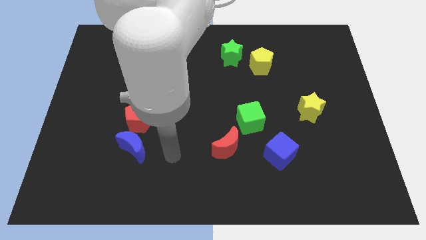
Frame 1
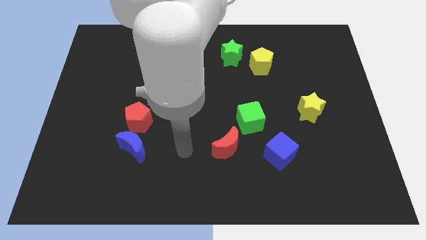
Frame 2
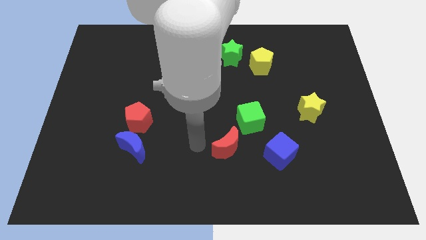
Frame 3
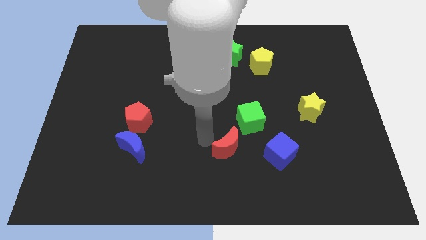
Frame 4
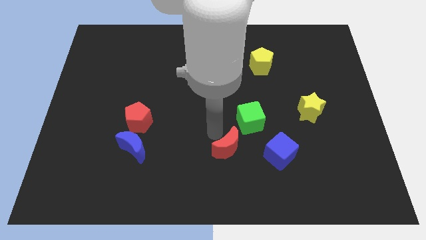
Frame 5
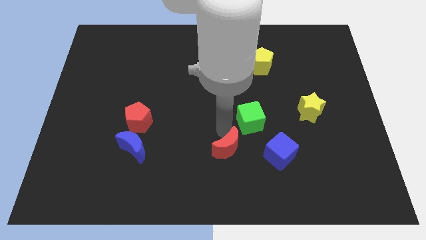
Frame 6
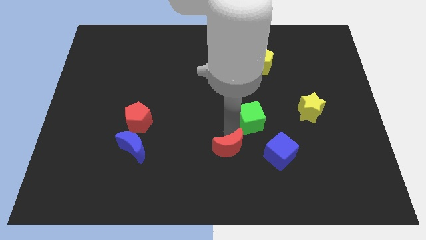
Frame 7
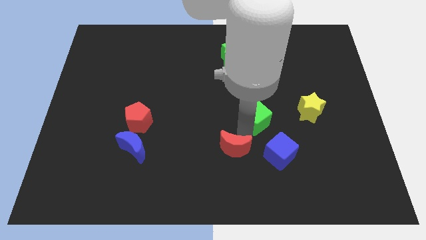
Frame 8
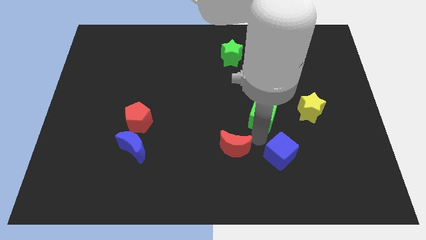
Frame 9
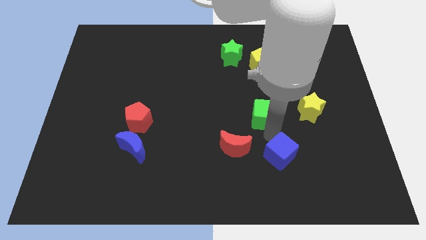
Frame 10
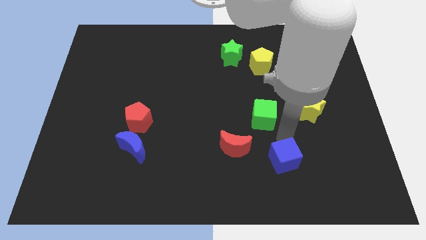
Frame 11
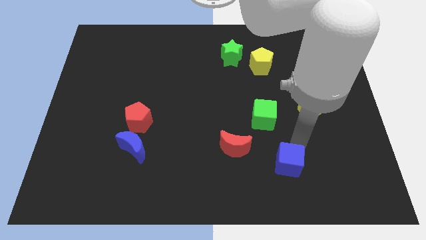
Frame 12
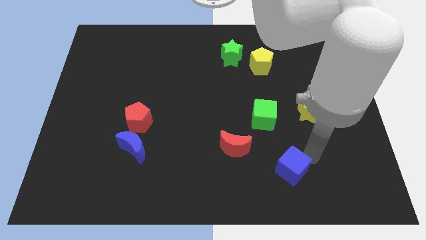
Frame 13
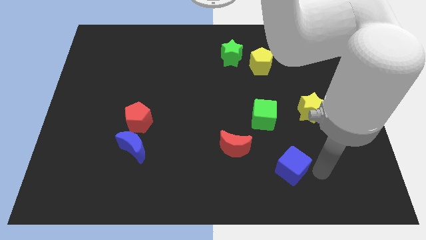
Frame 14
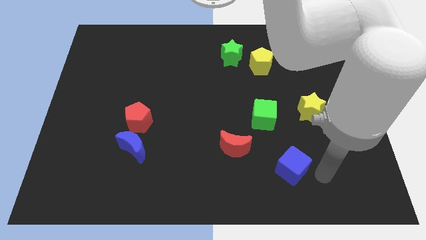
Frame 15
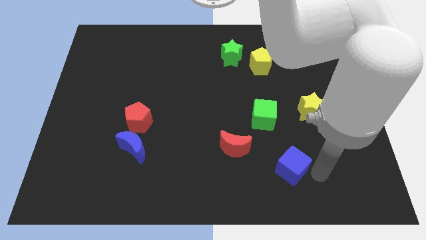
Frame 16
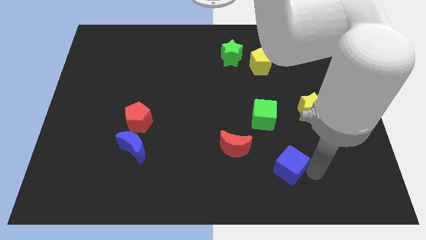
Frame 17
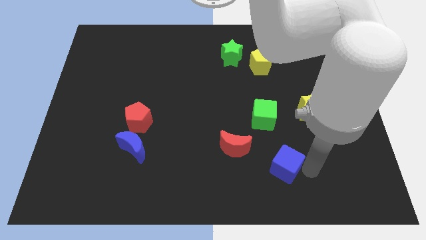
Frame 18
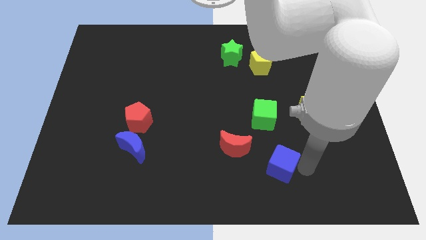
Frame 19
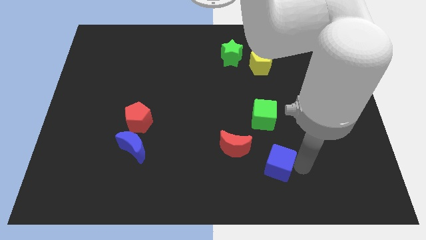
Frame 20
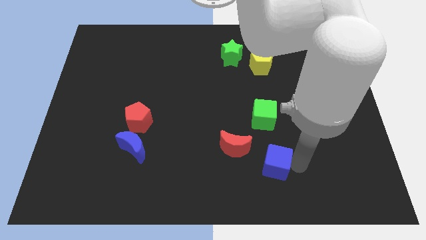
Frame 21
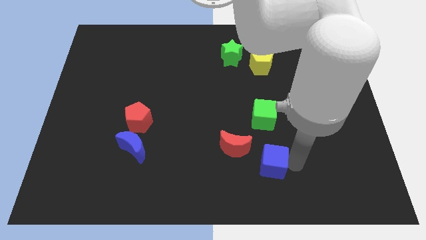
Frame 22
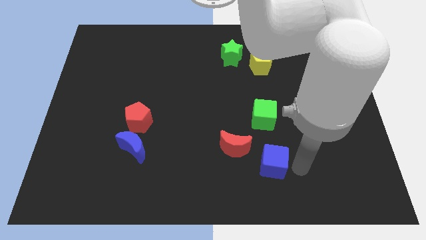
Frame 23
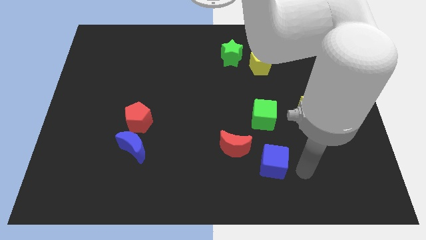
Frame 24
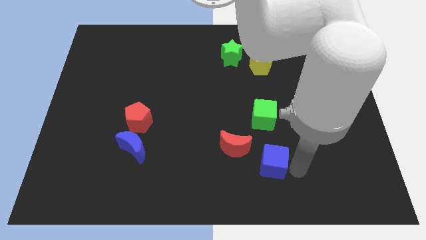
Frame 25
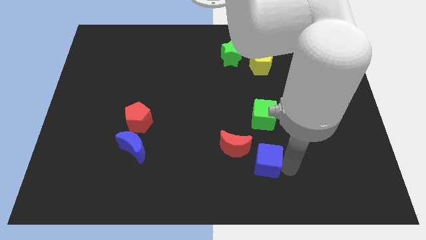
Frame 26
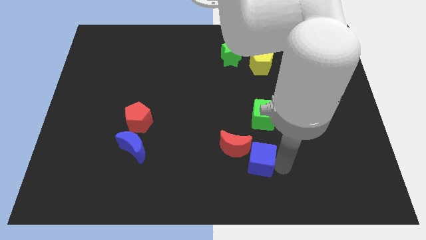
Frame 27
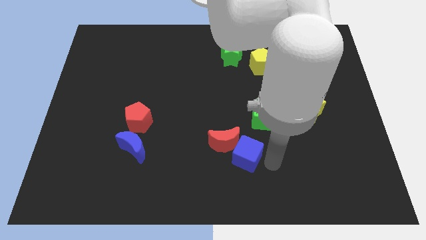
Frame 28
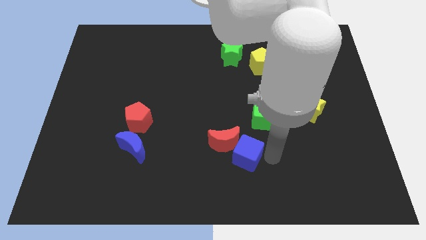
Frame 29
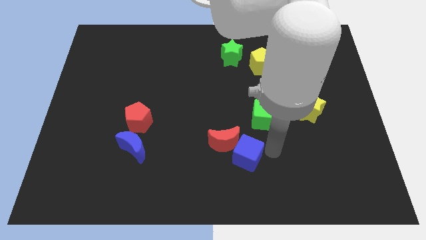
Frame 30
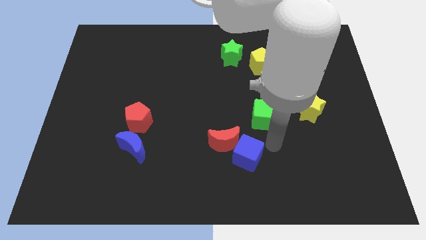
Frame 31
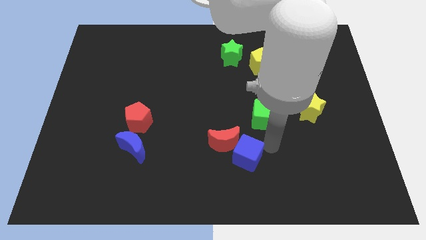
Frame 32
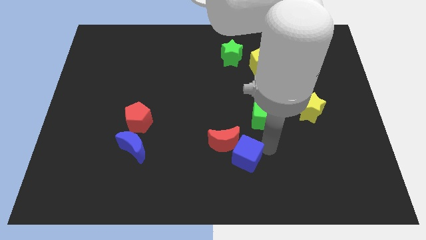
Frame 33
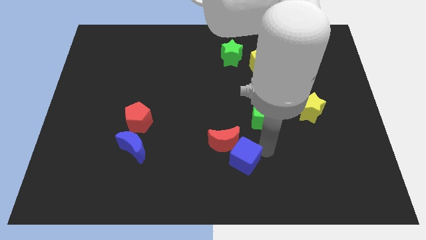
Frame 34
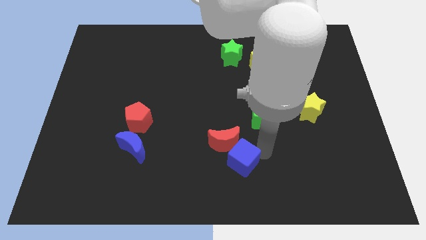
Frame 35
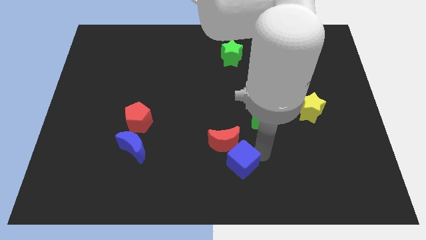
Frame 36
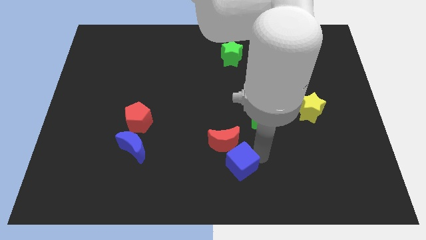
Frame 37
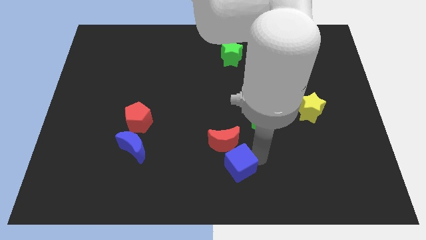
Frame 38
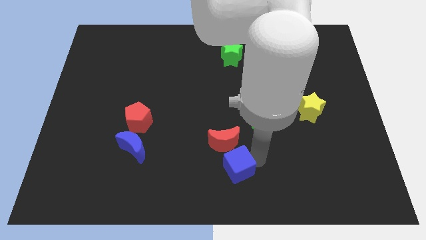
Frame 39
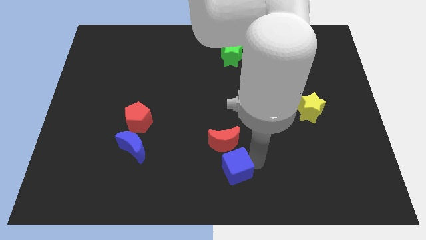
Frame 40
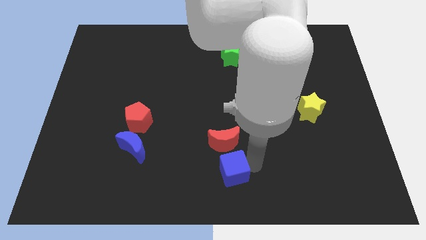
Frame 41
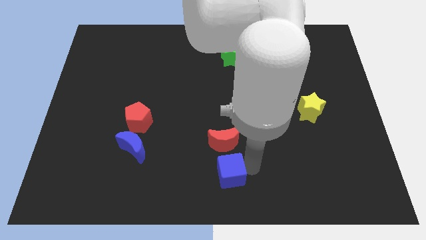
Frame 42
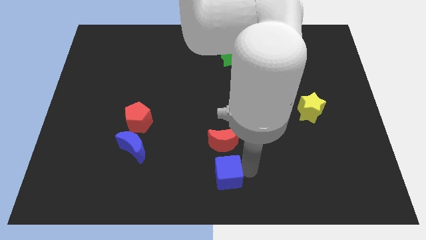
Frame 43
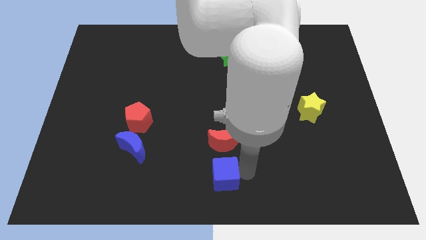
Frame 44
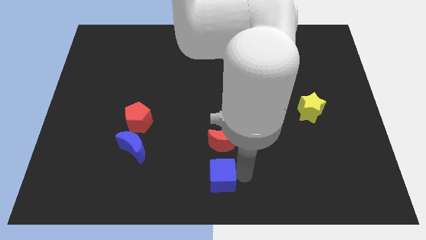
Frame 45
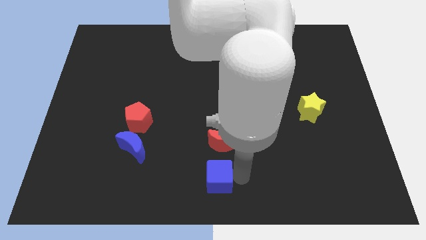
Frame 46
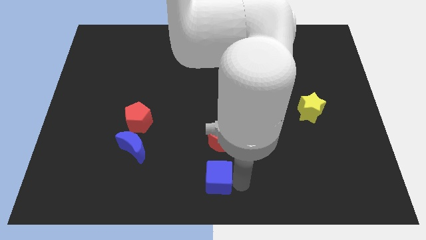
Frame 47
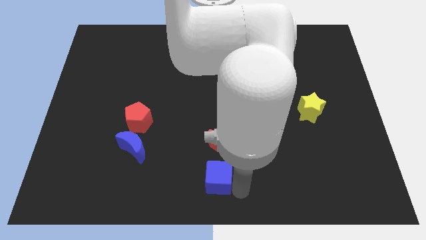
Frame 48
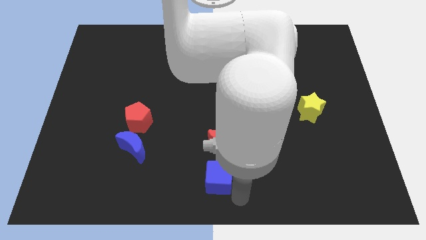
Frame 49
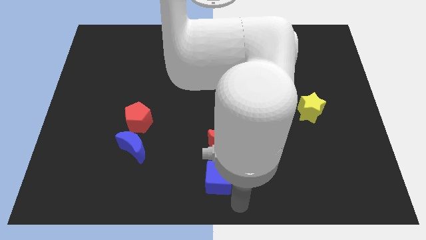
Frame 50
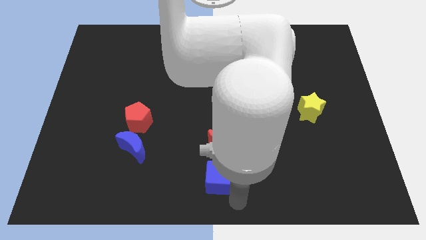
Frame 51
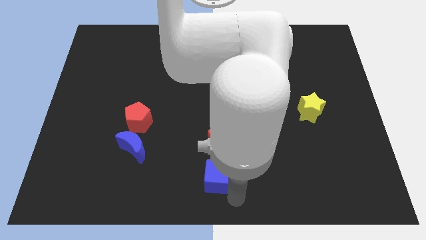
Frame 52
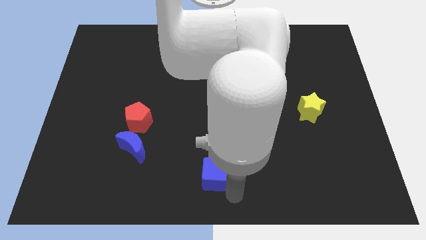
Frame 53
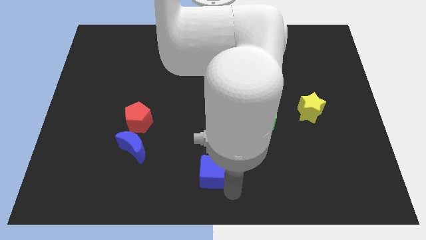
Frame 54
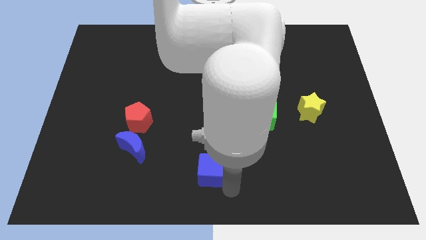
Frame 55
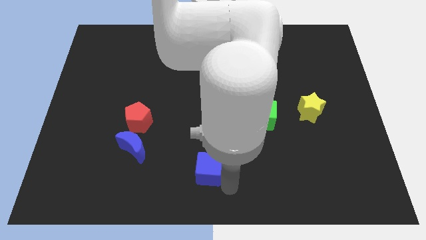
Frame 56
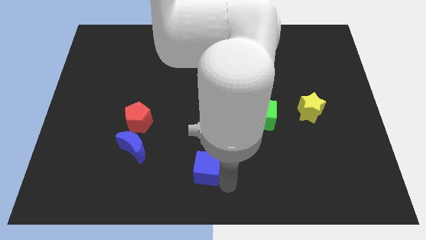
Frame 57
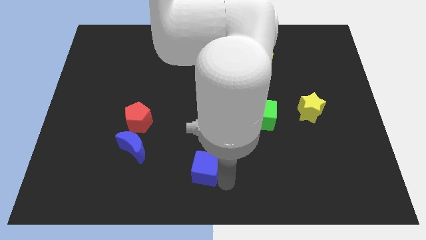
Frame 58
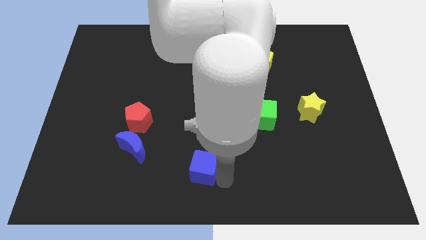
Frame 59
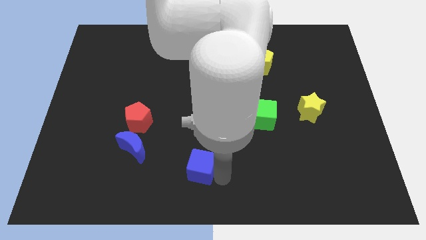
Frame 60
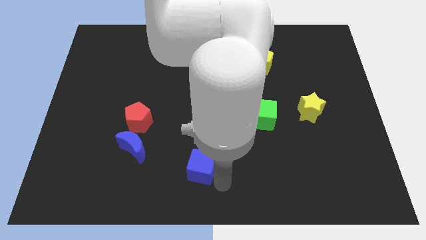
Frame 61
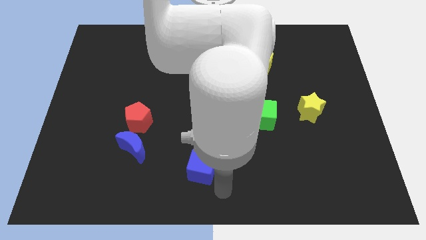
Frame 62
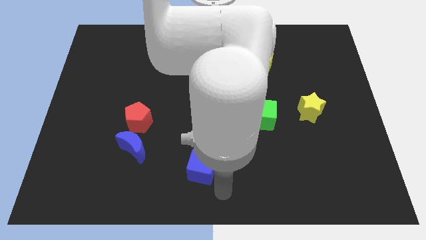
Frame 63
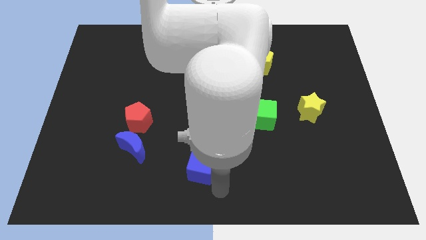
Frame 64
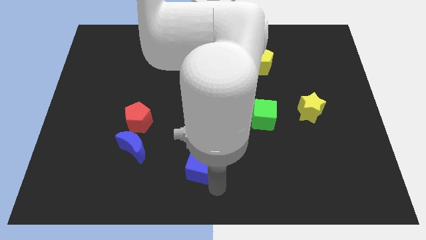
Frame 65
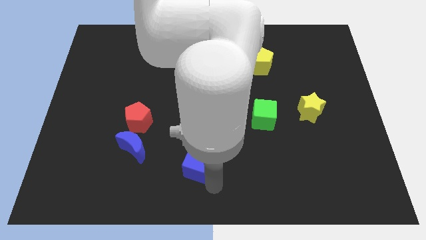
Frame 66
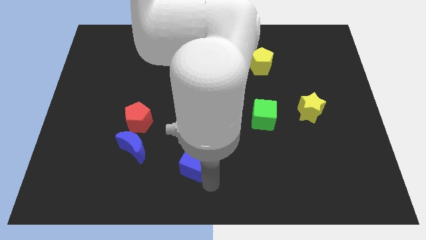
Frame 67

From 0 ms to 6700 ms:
put the blue cube to the right of the blue moon
